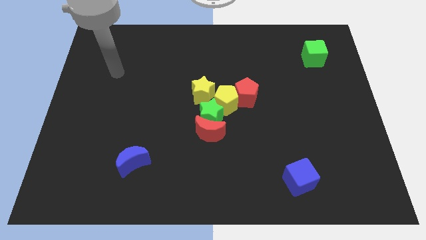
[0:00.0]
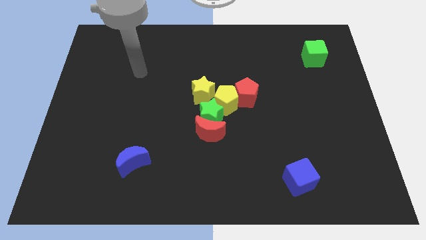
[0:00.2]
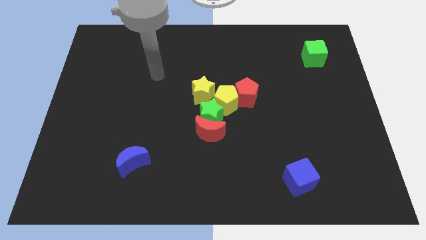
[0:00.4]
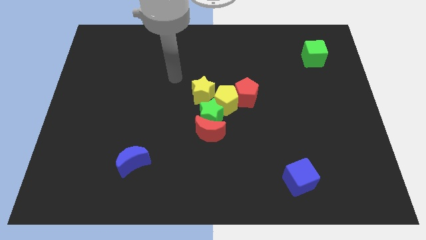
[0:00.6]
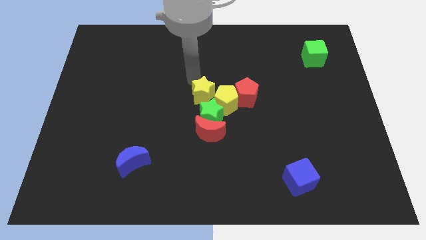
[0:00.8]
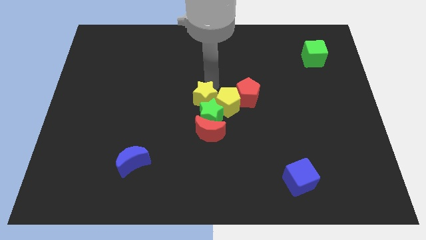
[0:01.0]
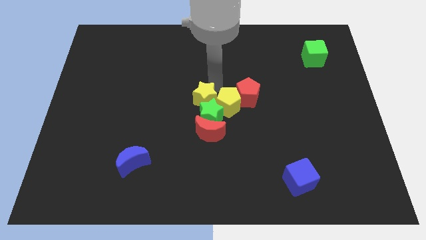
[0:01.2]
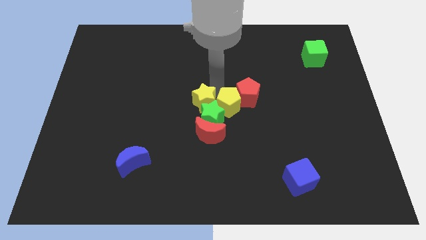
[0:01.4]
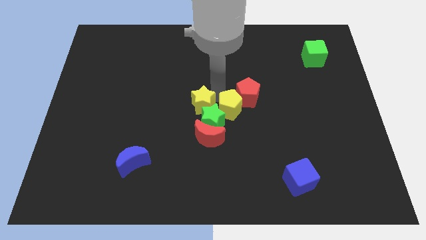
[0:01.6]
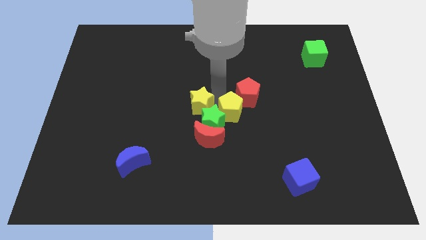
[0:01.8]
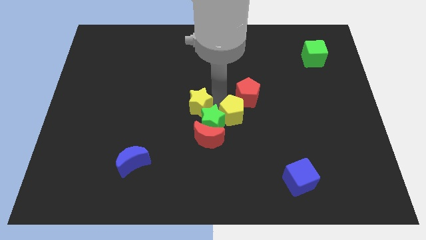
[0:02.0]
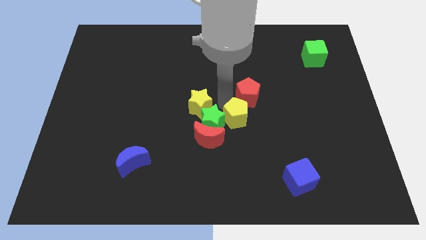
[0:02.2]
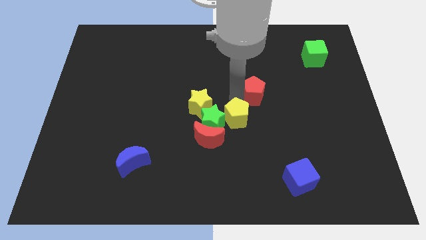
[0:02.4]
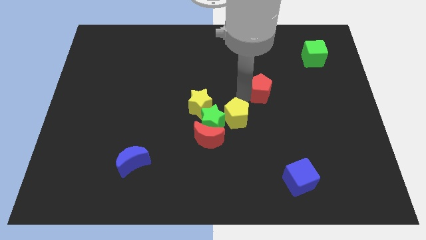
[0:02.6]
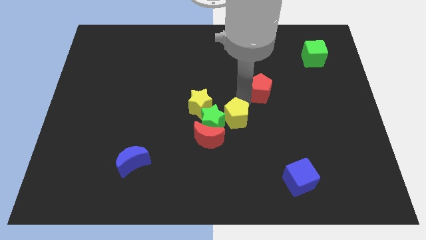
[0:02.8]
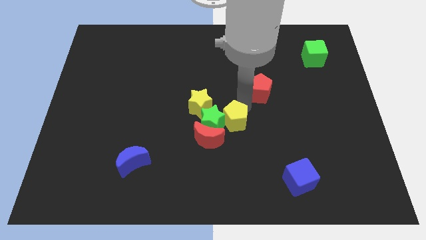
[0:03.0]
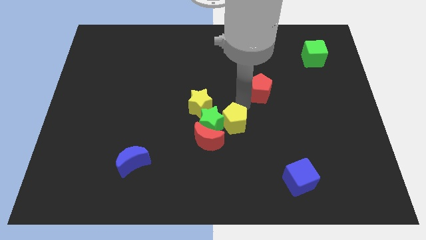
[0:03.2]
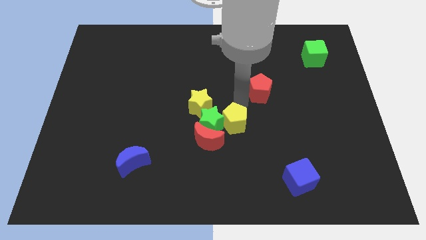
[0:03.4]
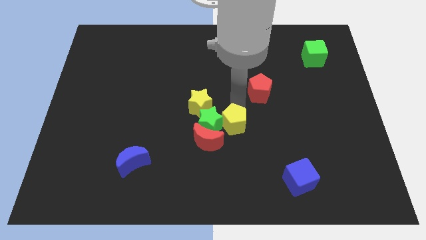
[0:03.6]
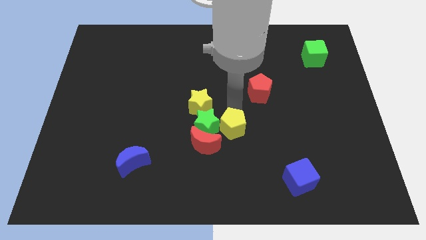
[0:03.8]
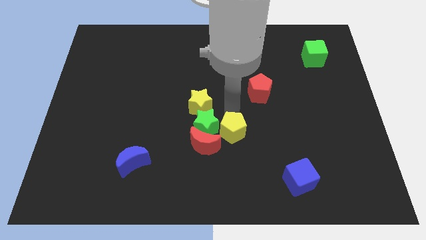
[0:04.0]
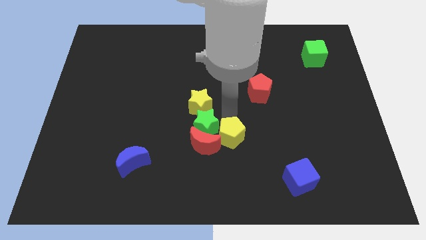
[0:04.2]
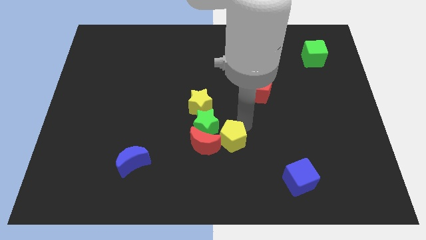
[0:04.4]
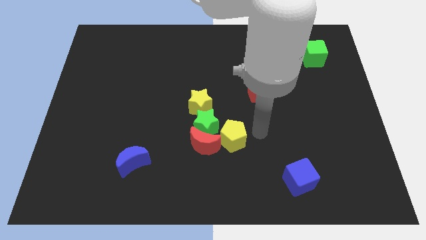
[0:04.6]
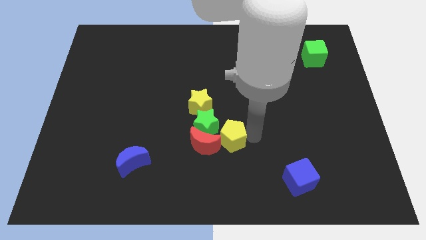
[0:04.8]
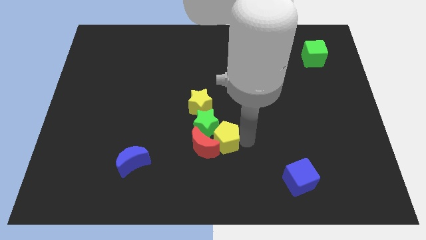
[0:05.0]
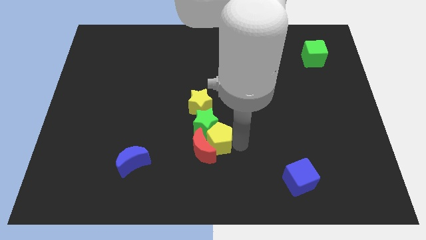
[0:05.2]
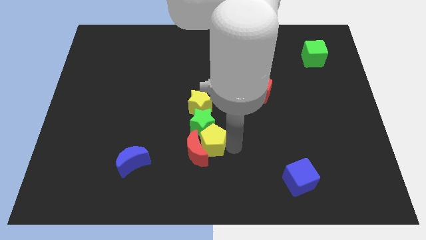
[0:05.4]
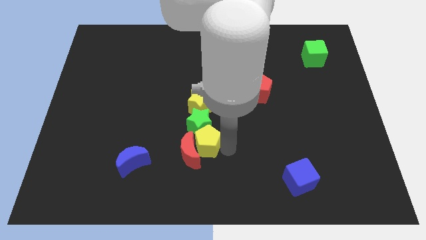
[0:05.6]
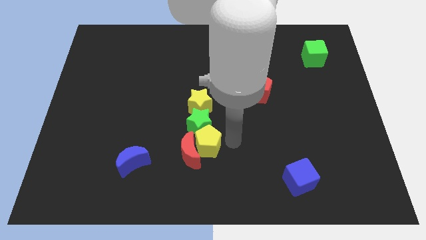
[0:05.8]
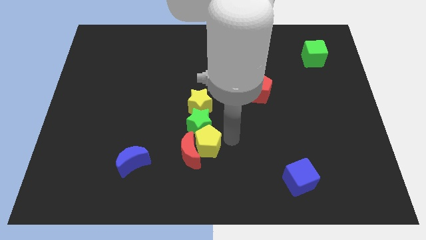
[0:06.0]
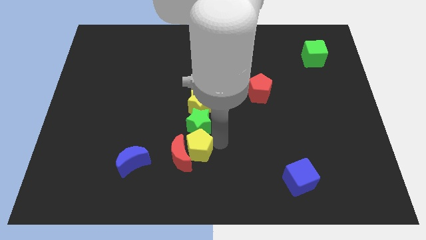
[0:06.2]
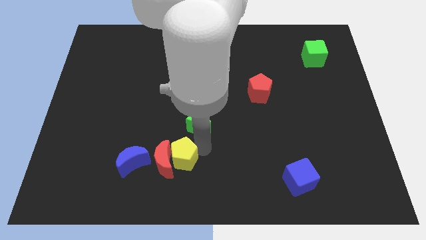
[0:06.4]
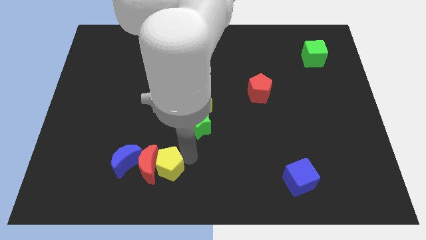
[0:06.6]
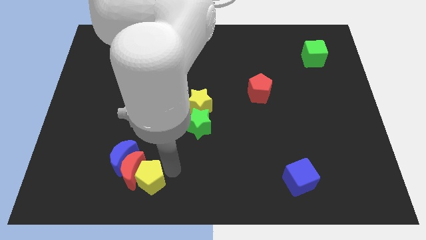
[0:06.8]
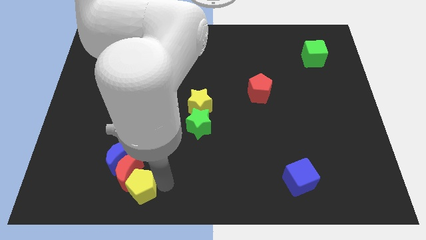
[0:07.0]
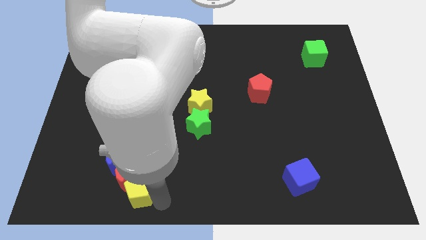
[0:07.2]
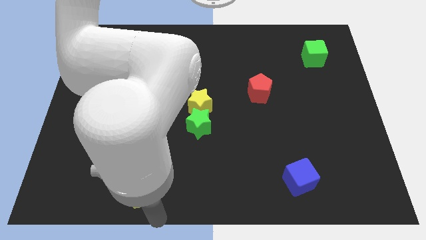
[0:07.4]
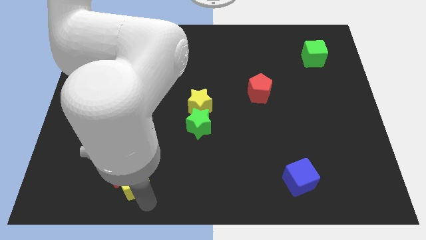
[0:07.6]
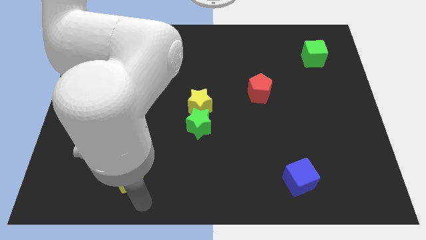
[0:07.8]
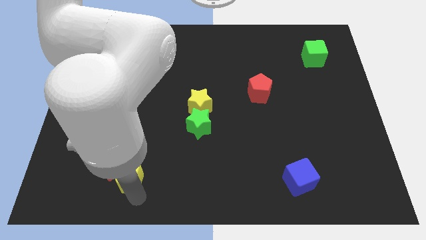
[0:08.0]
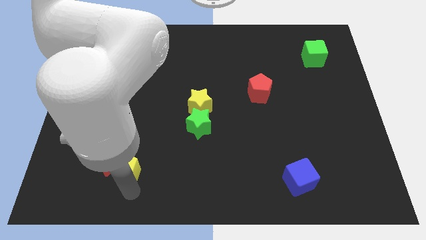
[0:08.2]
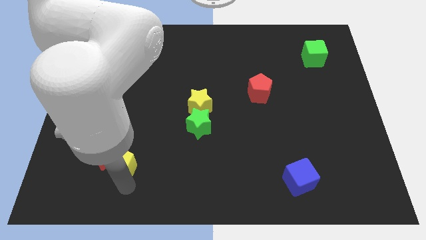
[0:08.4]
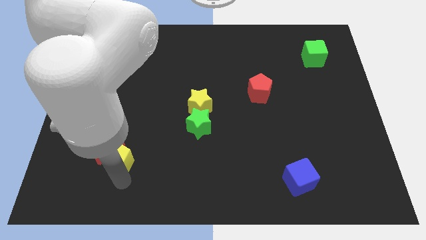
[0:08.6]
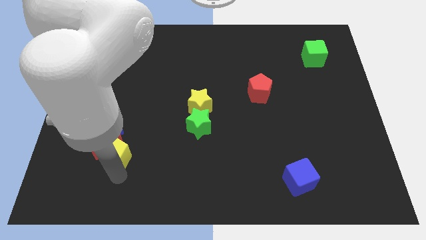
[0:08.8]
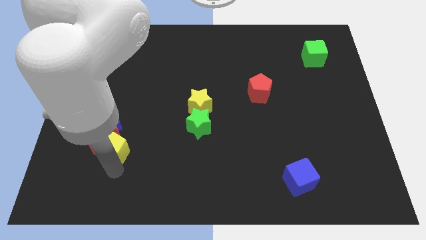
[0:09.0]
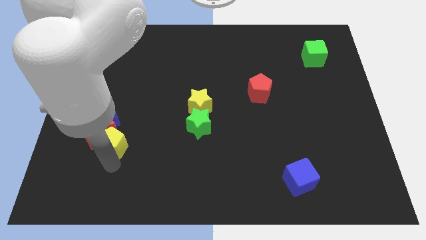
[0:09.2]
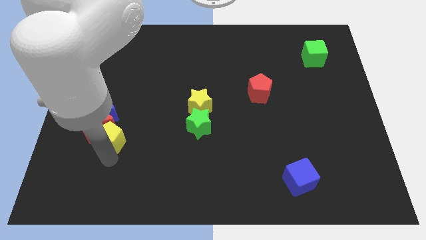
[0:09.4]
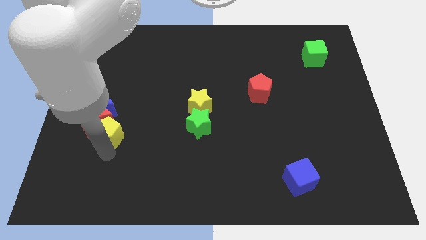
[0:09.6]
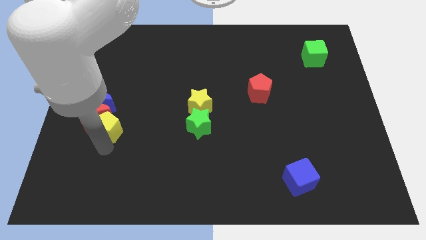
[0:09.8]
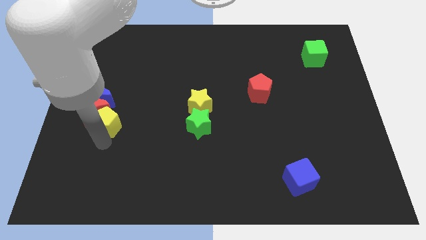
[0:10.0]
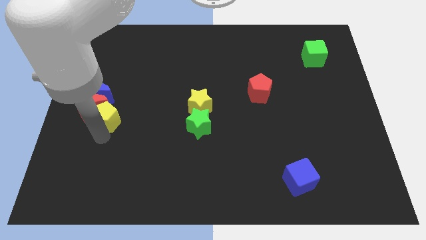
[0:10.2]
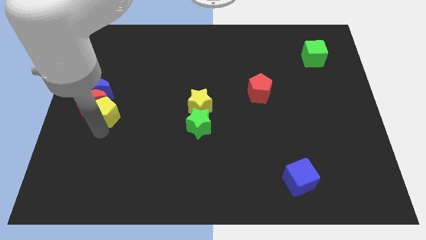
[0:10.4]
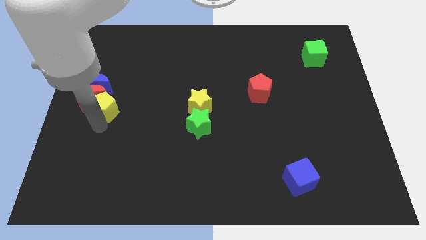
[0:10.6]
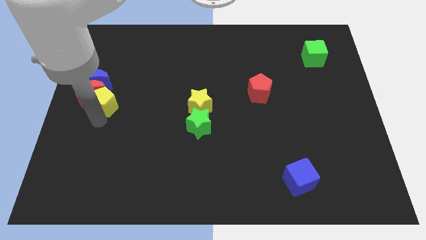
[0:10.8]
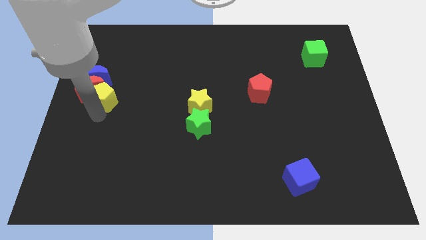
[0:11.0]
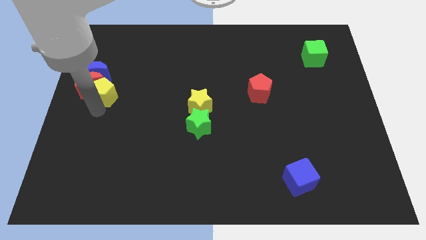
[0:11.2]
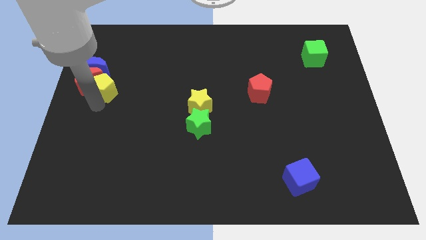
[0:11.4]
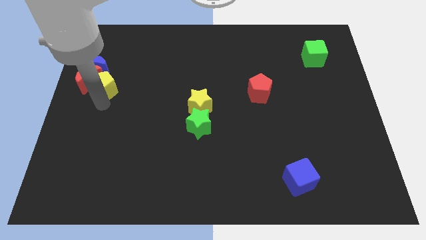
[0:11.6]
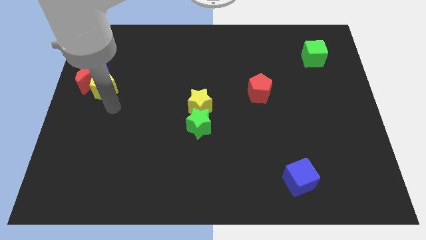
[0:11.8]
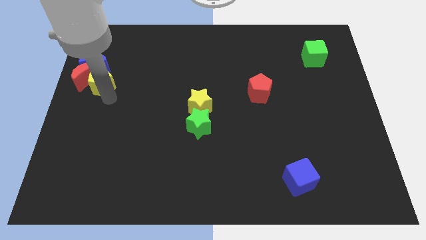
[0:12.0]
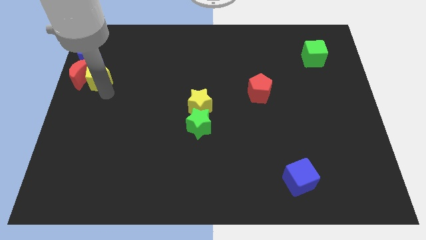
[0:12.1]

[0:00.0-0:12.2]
put the yellow pentagon next to the blue moon

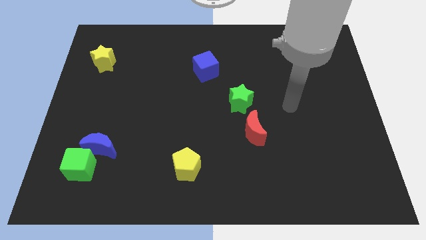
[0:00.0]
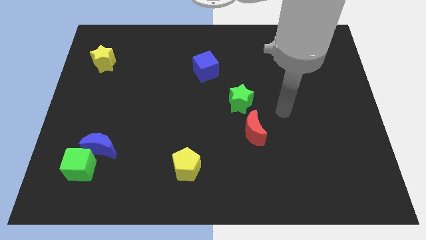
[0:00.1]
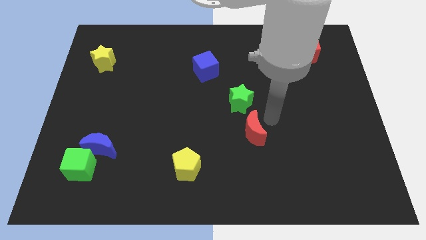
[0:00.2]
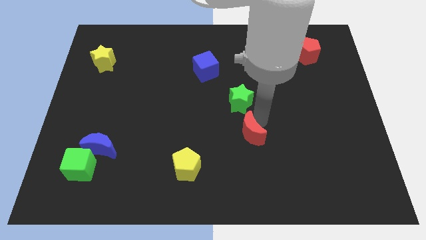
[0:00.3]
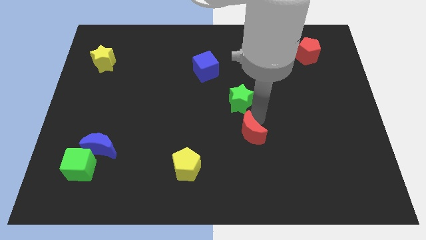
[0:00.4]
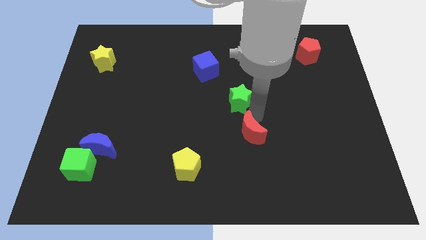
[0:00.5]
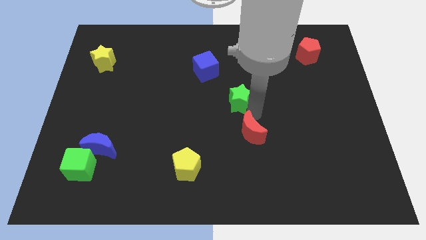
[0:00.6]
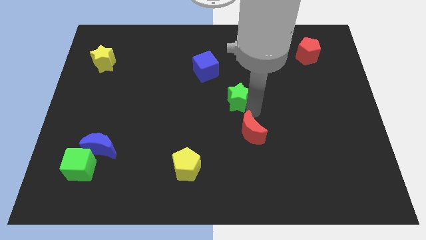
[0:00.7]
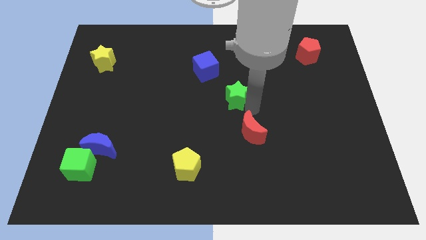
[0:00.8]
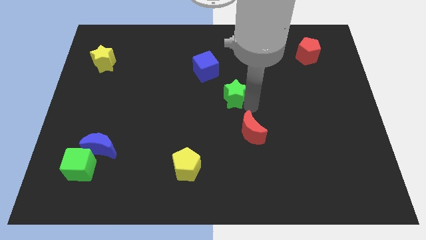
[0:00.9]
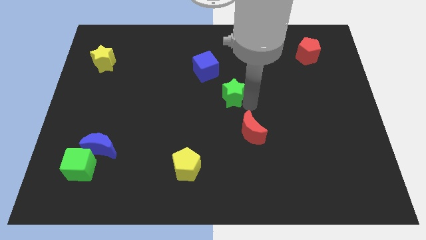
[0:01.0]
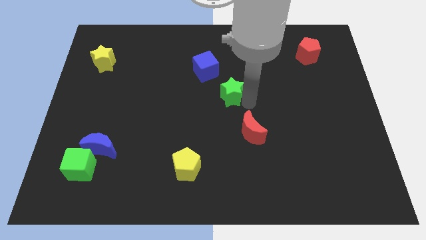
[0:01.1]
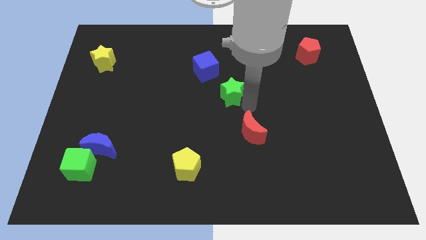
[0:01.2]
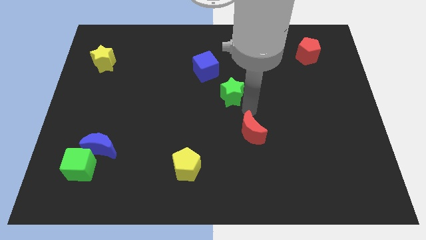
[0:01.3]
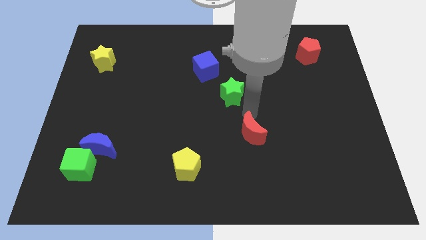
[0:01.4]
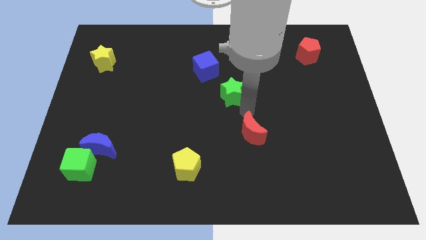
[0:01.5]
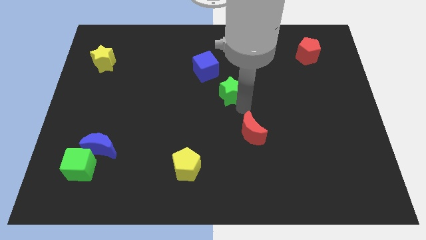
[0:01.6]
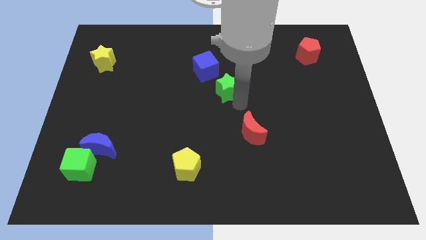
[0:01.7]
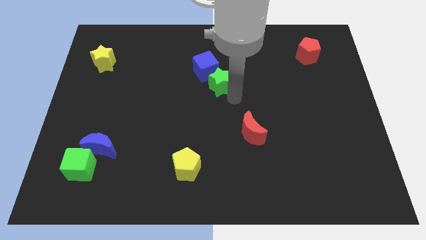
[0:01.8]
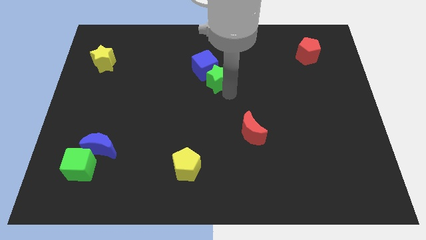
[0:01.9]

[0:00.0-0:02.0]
push the green star close to the blue cube
